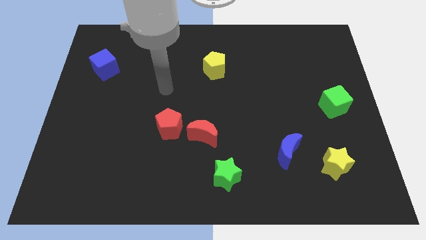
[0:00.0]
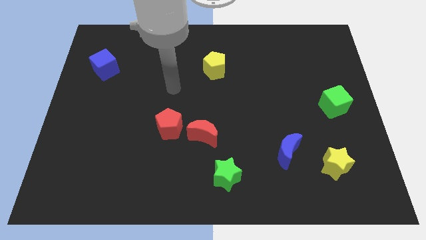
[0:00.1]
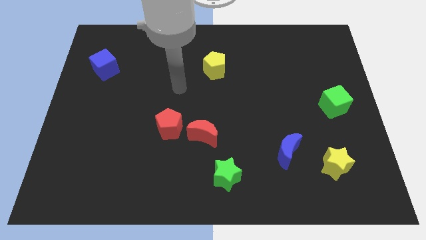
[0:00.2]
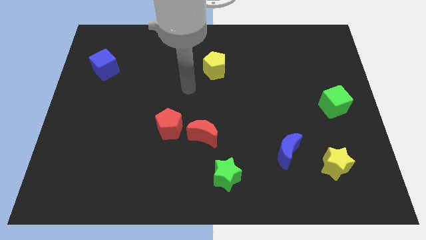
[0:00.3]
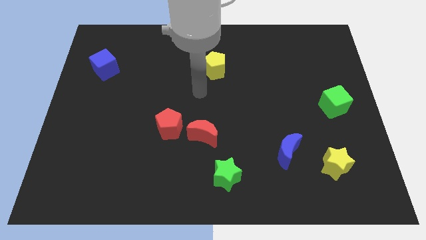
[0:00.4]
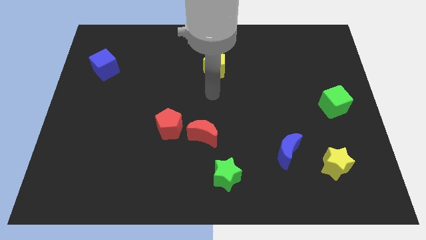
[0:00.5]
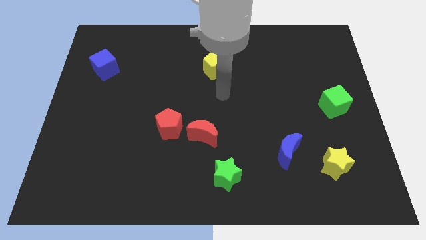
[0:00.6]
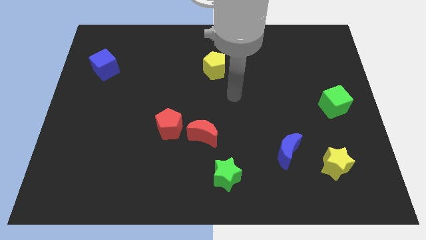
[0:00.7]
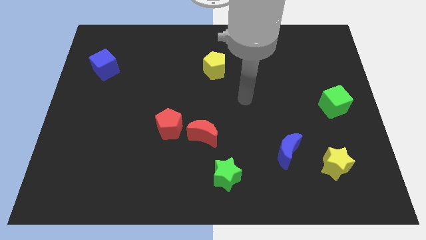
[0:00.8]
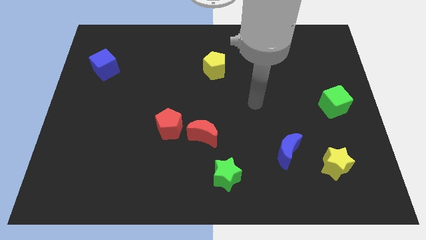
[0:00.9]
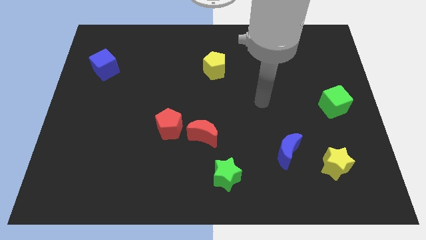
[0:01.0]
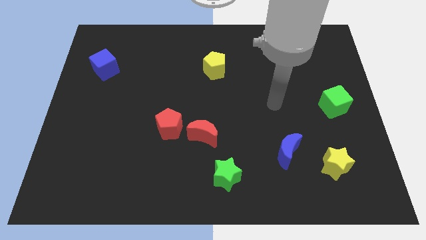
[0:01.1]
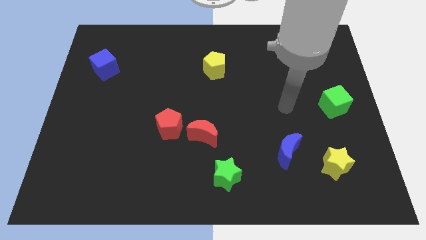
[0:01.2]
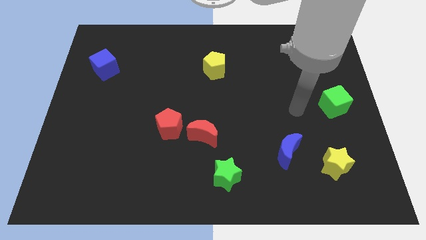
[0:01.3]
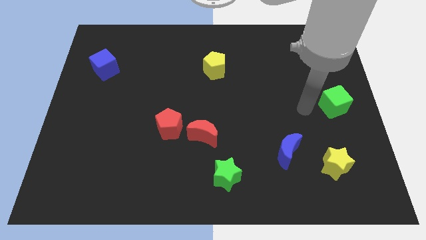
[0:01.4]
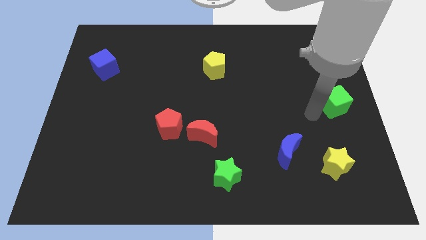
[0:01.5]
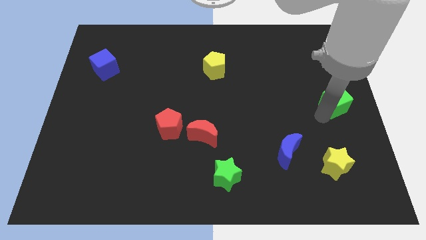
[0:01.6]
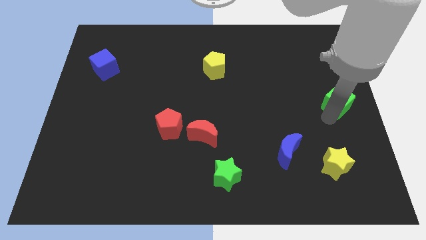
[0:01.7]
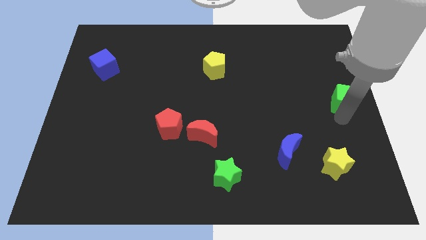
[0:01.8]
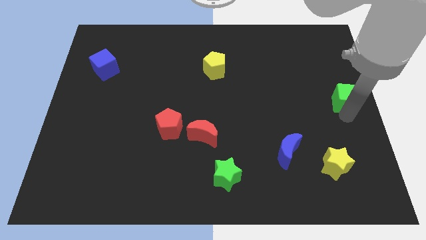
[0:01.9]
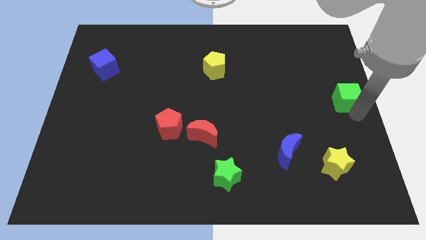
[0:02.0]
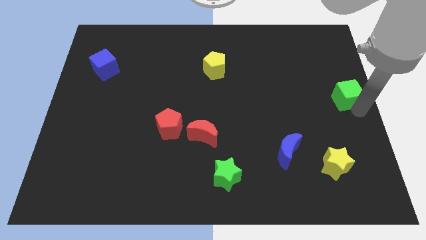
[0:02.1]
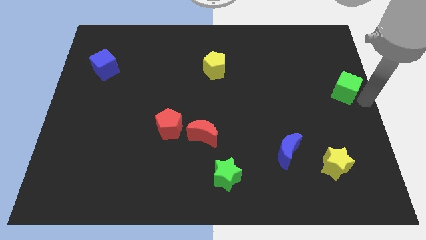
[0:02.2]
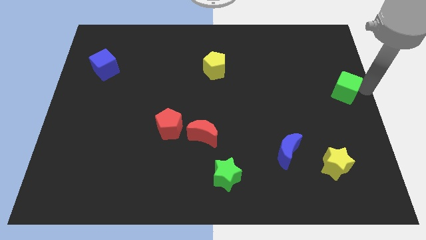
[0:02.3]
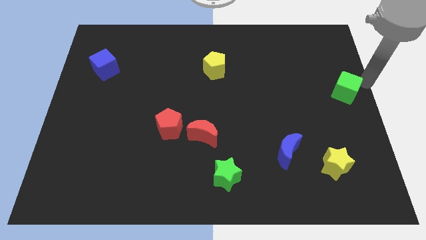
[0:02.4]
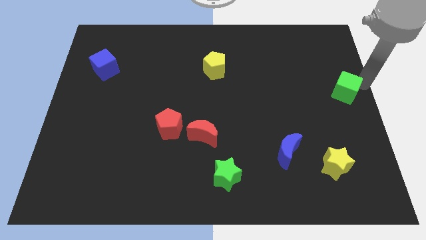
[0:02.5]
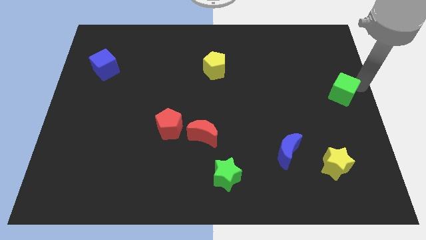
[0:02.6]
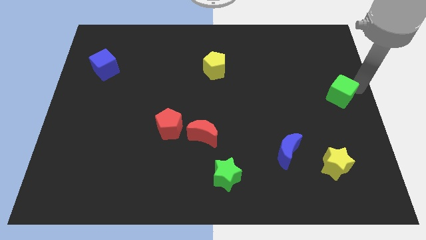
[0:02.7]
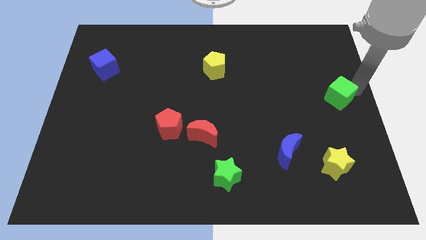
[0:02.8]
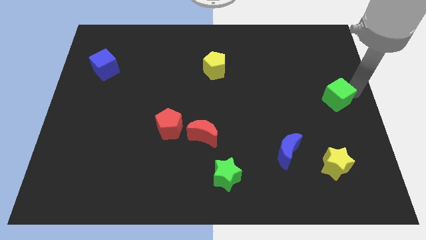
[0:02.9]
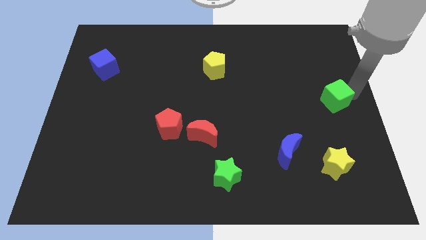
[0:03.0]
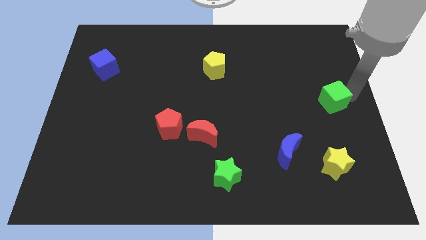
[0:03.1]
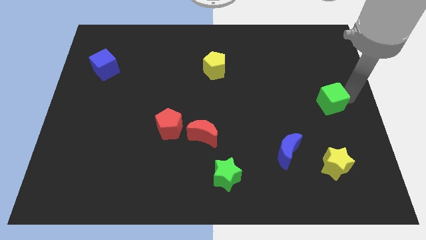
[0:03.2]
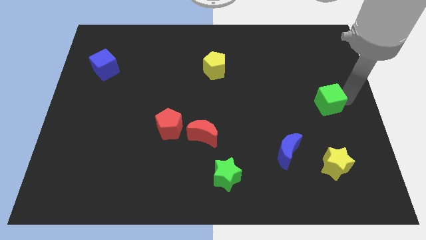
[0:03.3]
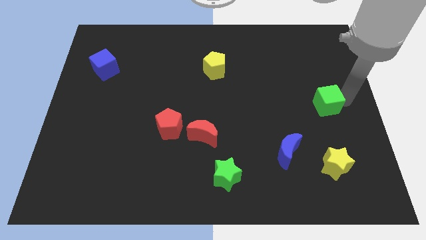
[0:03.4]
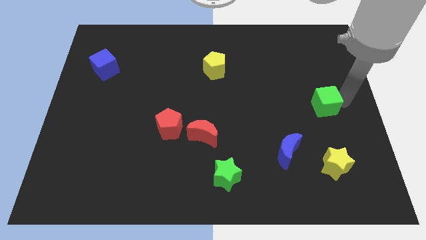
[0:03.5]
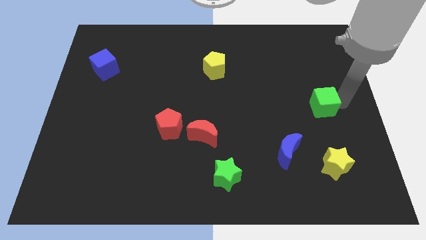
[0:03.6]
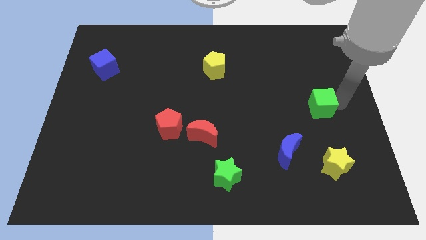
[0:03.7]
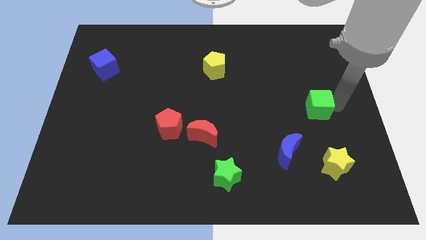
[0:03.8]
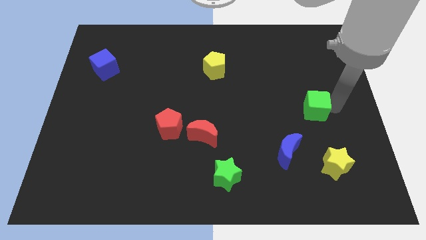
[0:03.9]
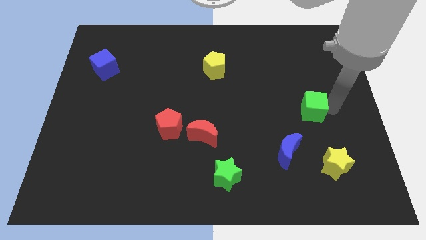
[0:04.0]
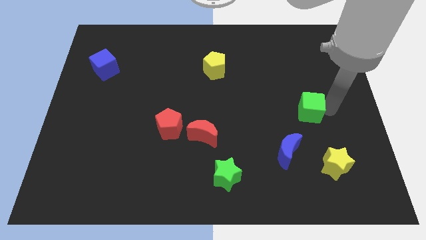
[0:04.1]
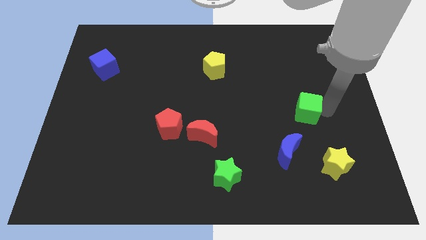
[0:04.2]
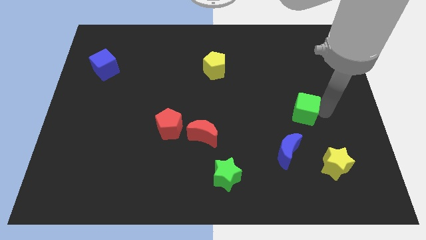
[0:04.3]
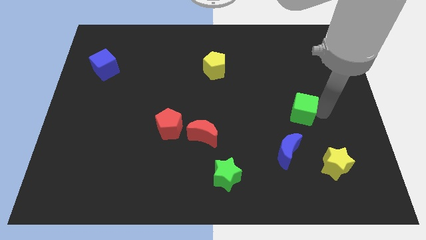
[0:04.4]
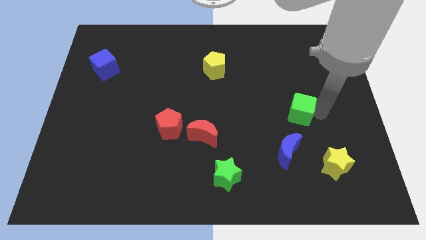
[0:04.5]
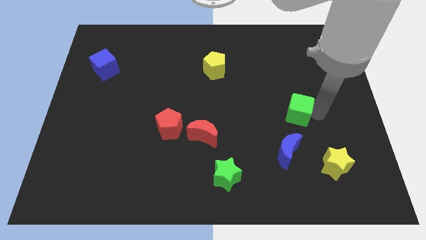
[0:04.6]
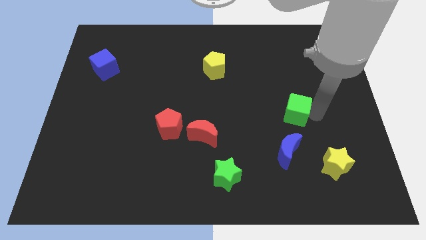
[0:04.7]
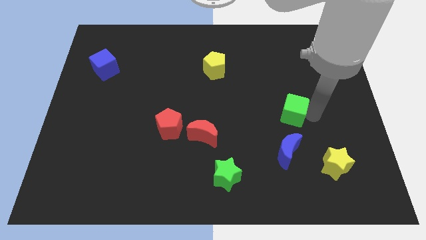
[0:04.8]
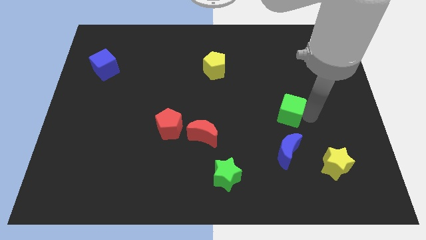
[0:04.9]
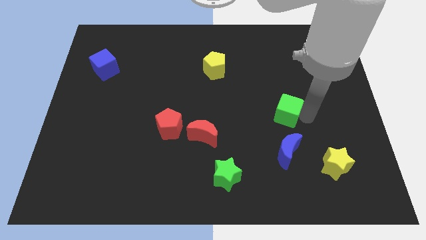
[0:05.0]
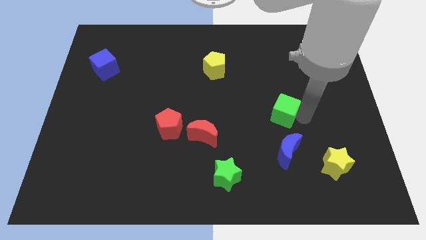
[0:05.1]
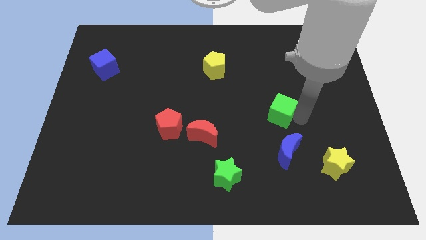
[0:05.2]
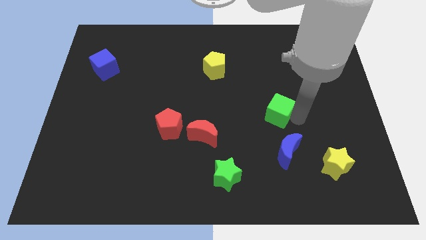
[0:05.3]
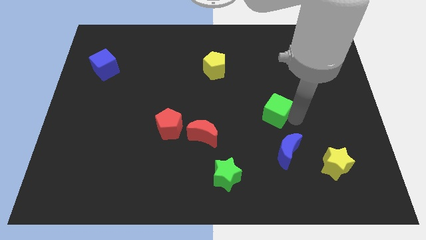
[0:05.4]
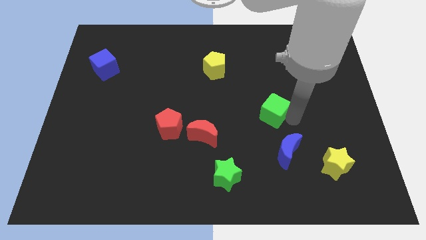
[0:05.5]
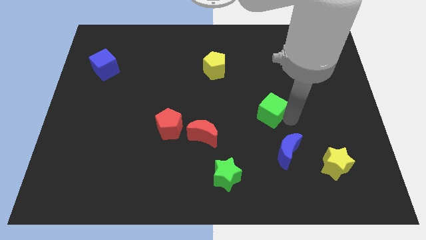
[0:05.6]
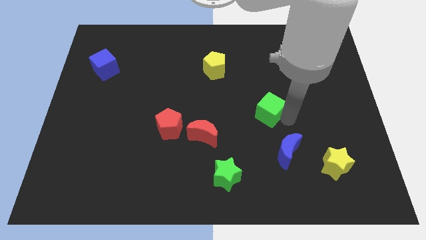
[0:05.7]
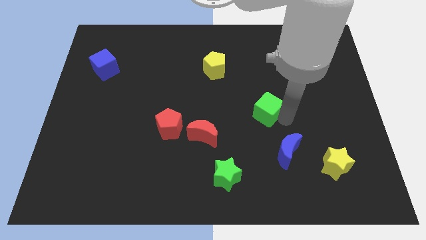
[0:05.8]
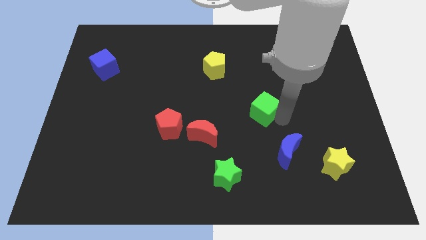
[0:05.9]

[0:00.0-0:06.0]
put the green cube to the middle of the board
